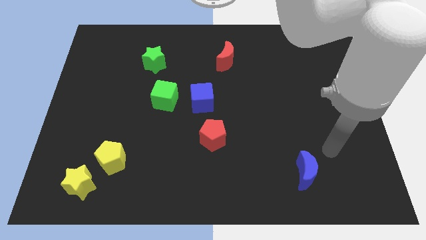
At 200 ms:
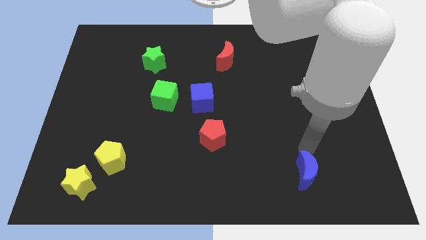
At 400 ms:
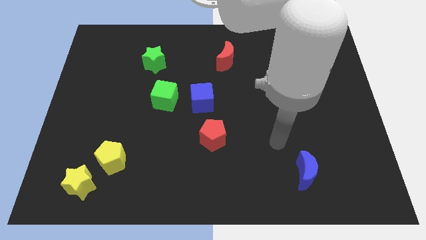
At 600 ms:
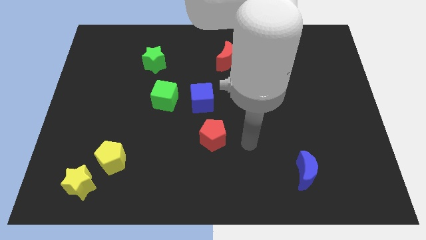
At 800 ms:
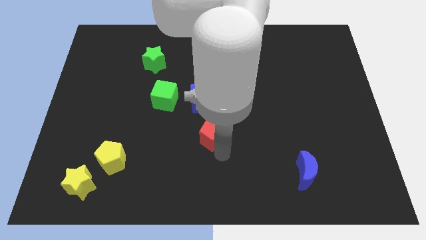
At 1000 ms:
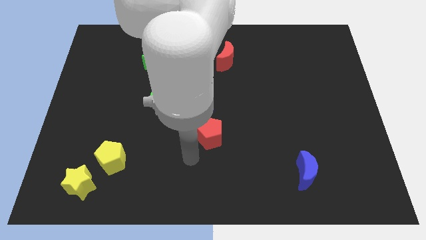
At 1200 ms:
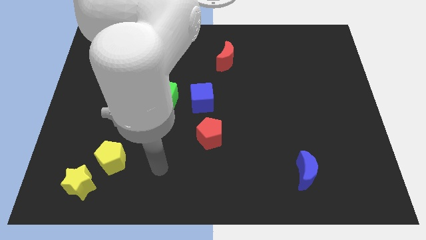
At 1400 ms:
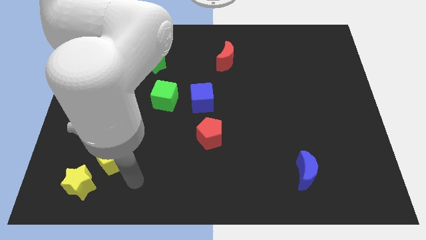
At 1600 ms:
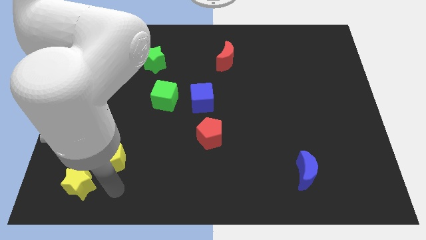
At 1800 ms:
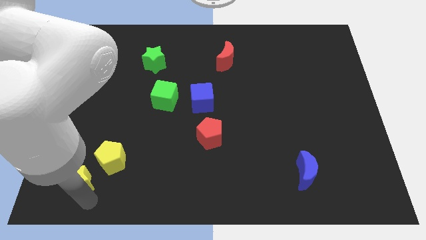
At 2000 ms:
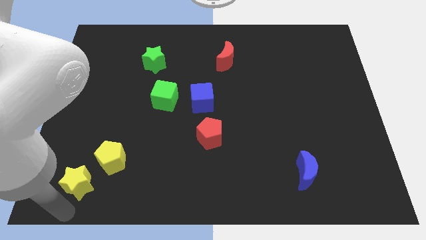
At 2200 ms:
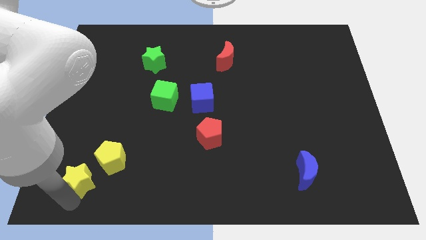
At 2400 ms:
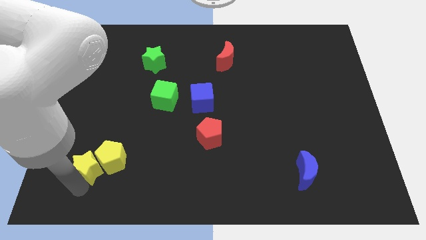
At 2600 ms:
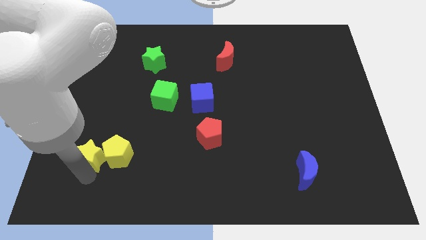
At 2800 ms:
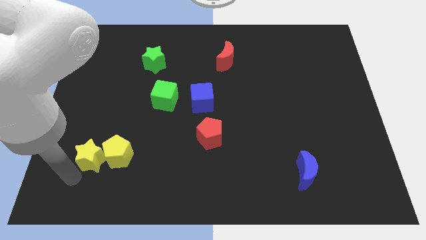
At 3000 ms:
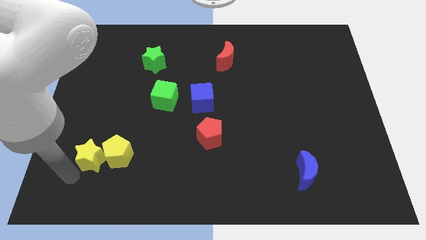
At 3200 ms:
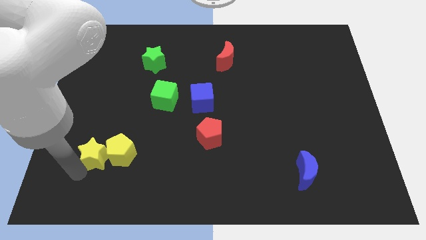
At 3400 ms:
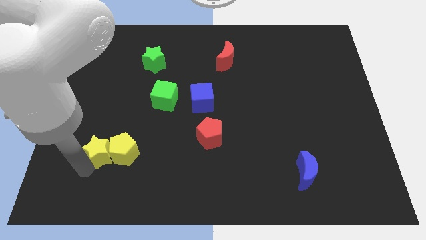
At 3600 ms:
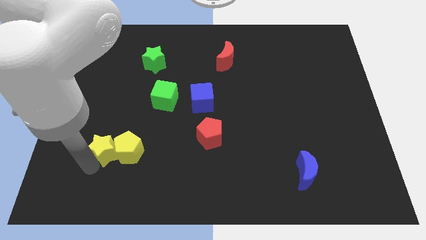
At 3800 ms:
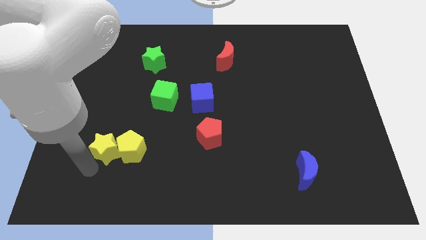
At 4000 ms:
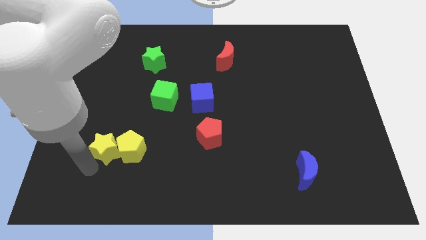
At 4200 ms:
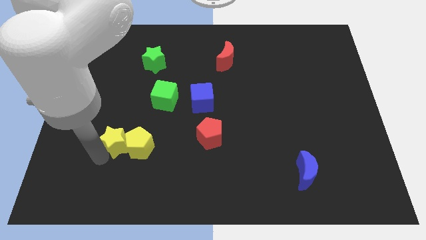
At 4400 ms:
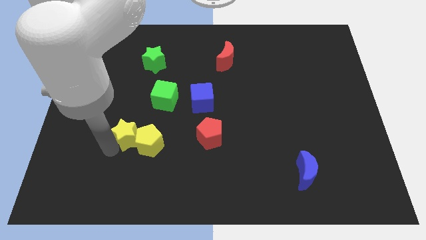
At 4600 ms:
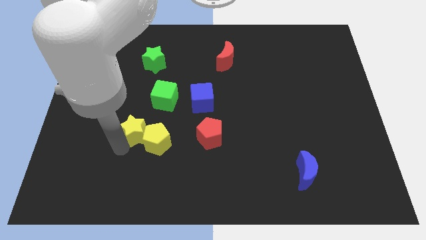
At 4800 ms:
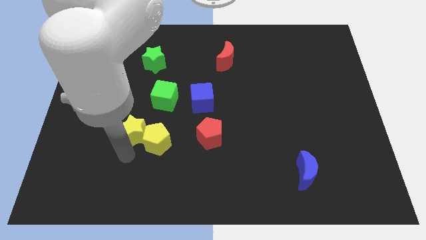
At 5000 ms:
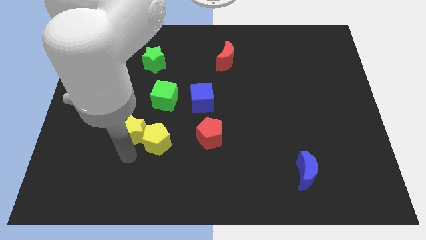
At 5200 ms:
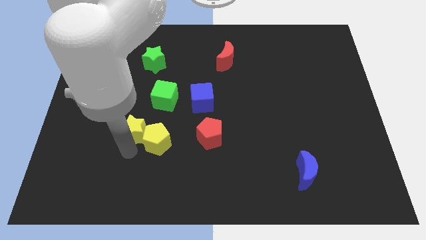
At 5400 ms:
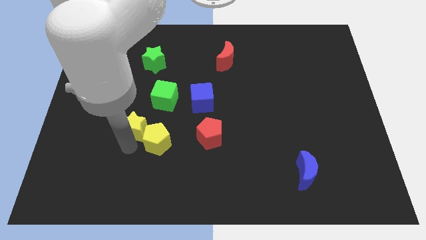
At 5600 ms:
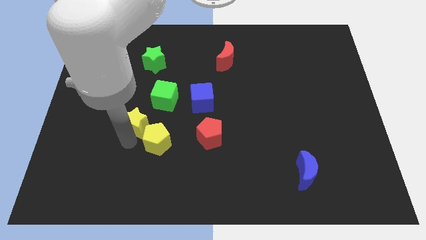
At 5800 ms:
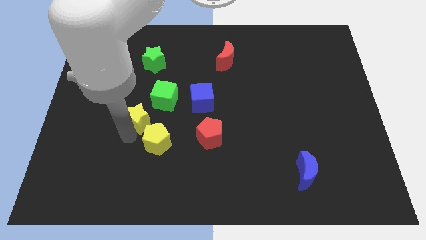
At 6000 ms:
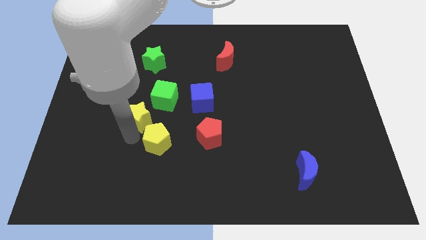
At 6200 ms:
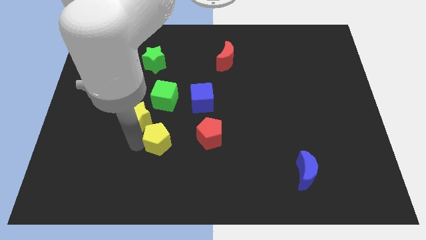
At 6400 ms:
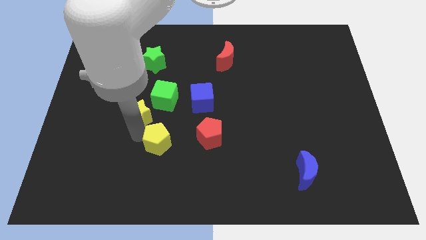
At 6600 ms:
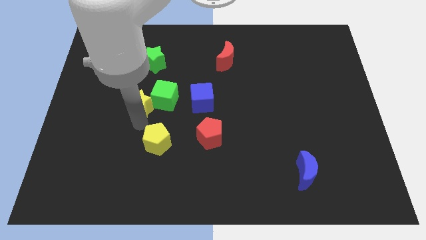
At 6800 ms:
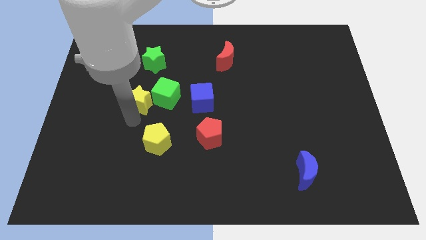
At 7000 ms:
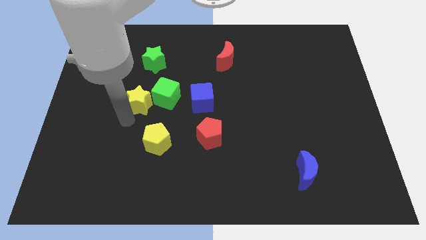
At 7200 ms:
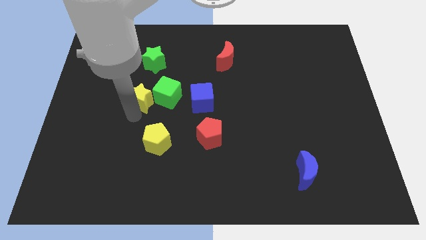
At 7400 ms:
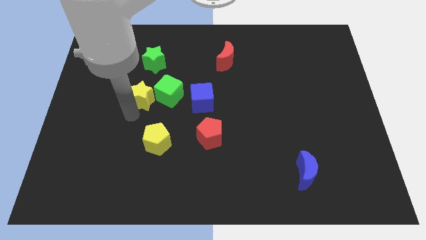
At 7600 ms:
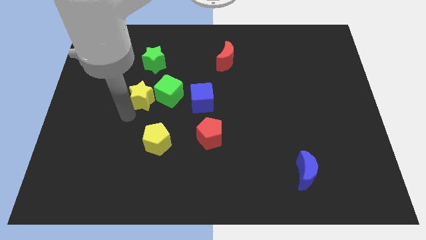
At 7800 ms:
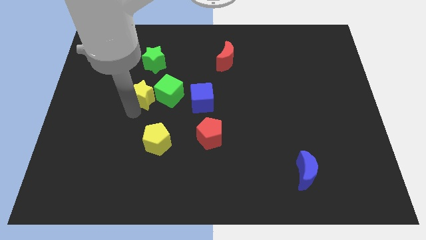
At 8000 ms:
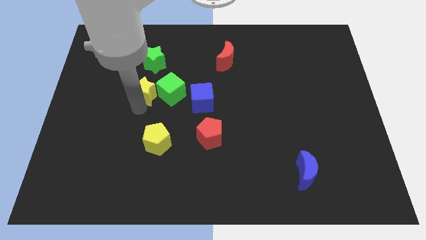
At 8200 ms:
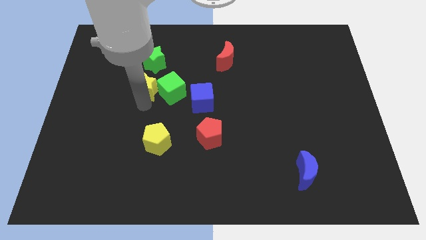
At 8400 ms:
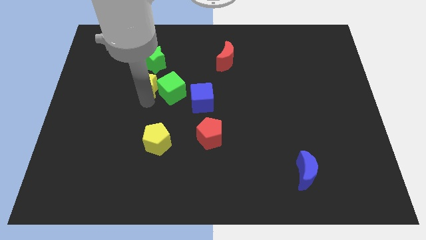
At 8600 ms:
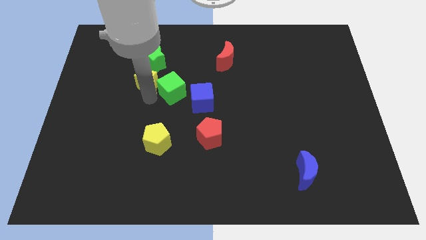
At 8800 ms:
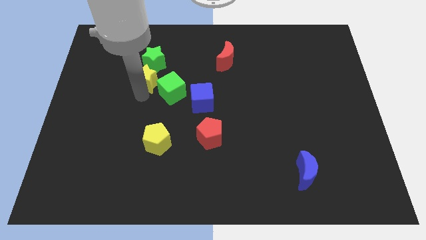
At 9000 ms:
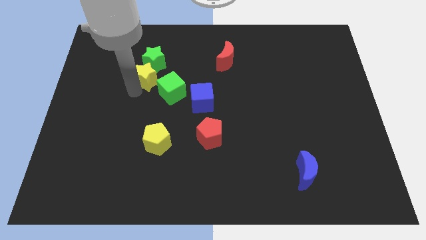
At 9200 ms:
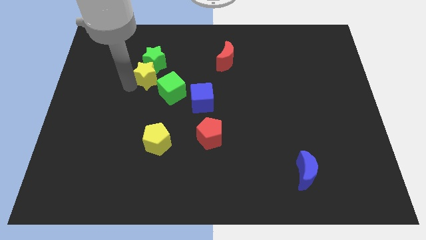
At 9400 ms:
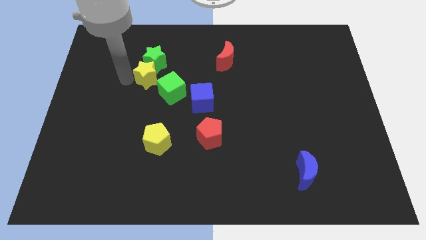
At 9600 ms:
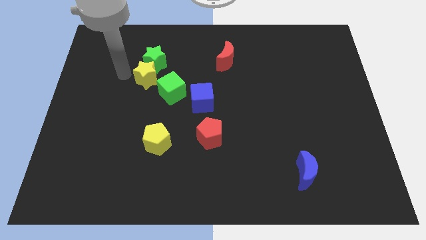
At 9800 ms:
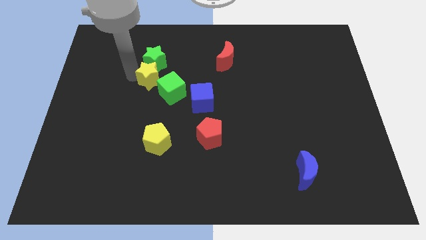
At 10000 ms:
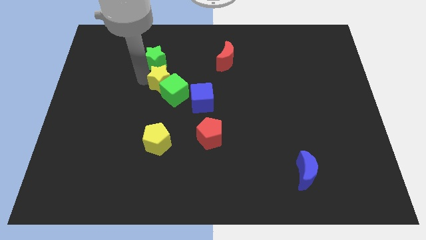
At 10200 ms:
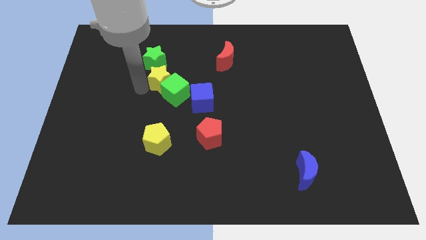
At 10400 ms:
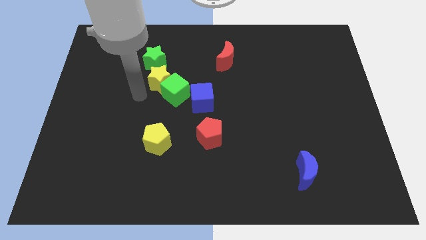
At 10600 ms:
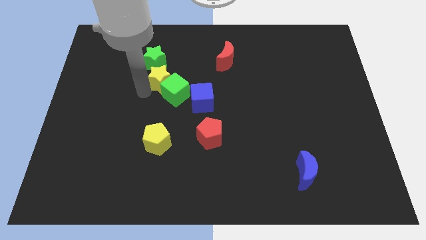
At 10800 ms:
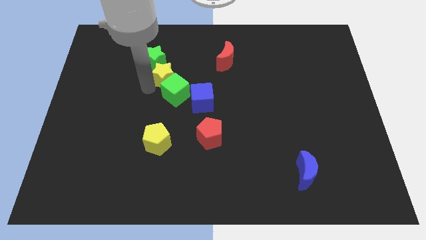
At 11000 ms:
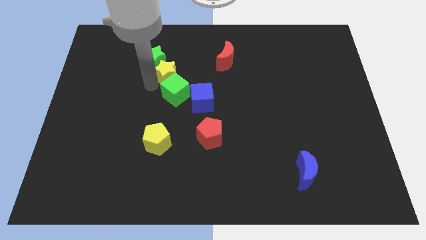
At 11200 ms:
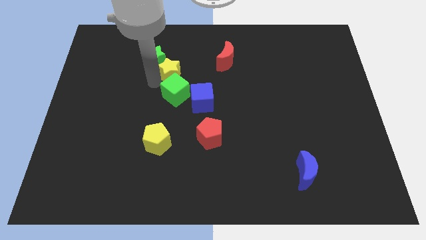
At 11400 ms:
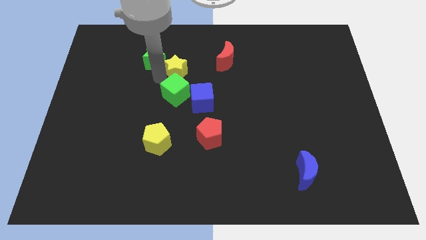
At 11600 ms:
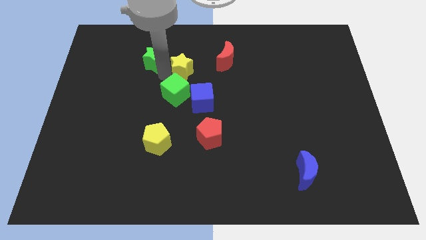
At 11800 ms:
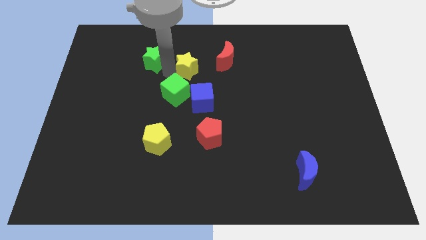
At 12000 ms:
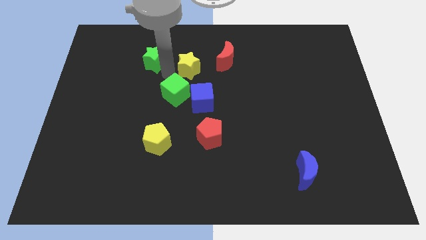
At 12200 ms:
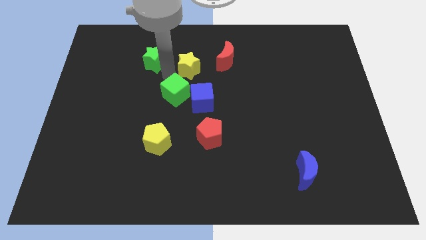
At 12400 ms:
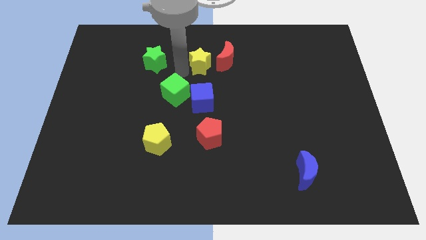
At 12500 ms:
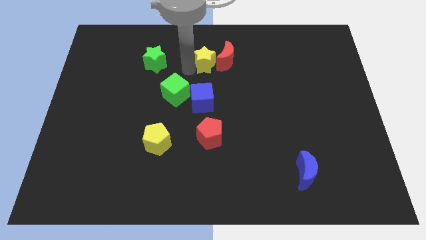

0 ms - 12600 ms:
move the yellow star close to the red moon

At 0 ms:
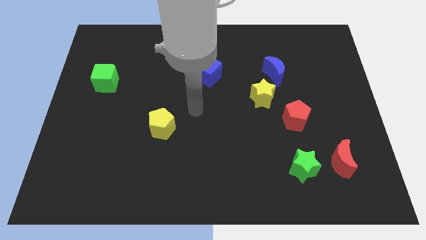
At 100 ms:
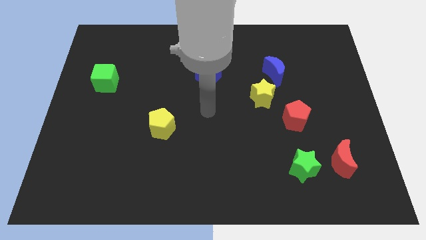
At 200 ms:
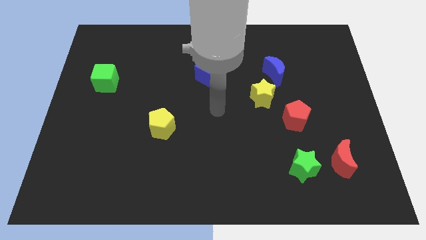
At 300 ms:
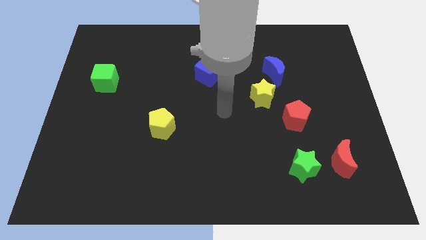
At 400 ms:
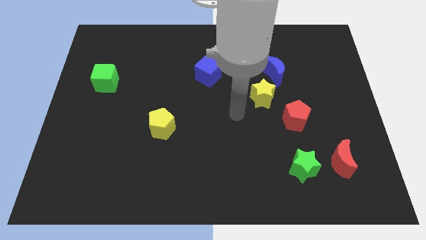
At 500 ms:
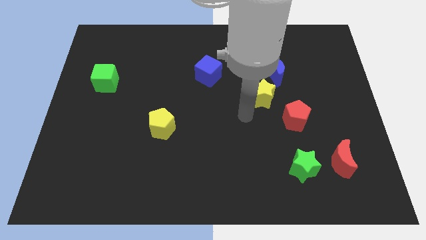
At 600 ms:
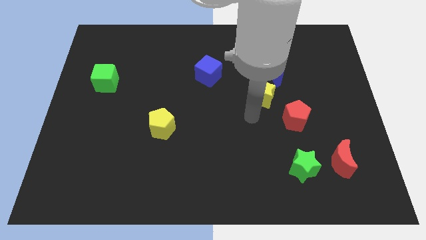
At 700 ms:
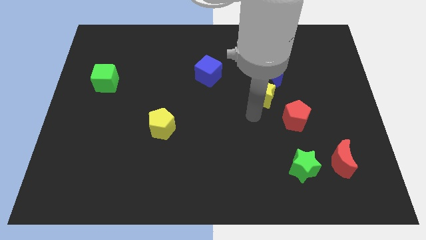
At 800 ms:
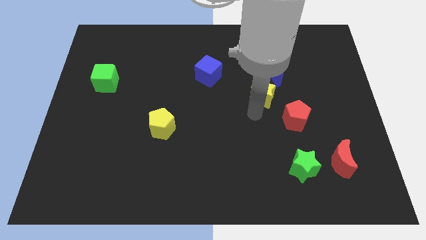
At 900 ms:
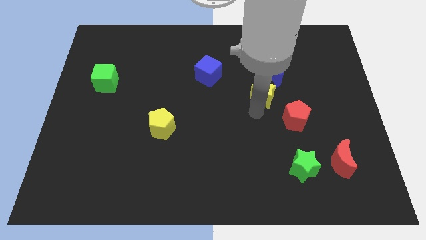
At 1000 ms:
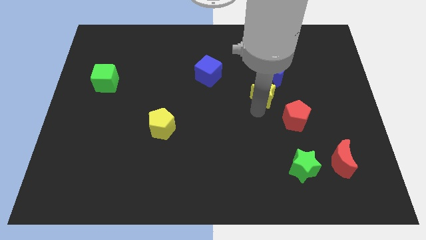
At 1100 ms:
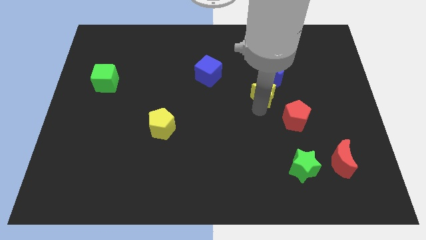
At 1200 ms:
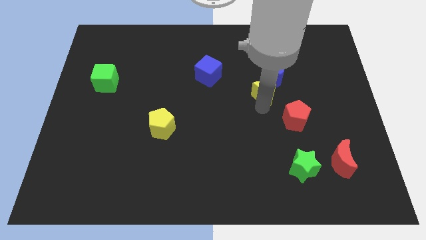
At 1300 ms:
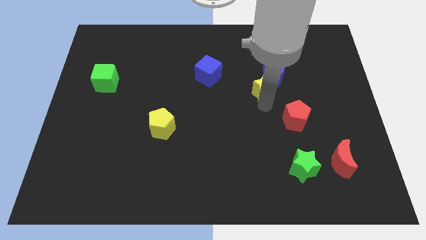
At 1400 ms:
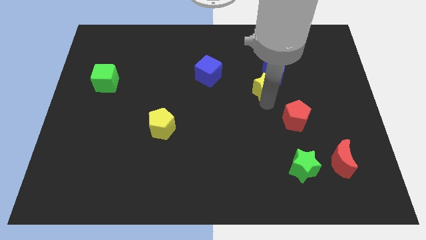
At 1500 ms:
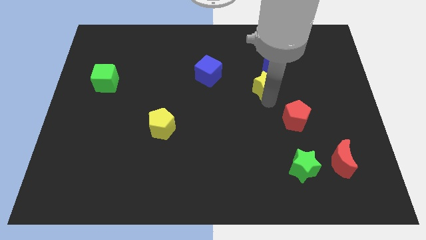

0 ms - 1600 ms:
push the yellow star close to the blue moon

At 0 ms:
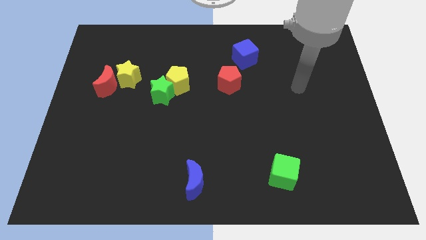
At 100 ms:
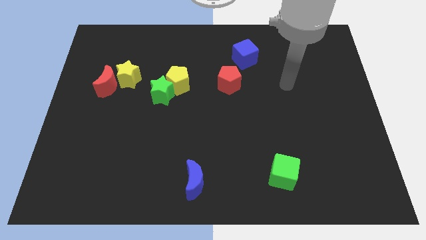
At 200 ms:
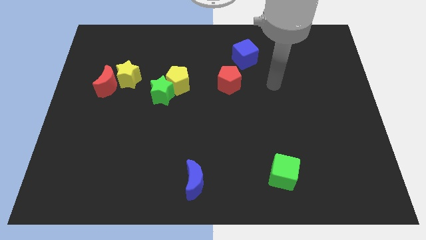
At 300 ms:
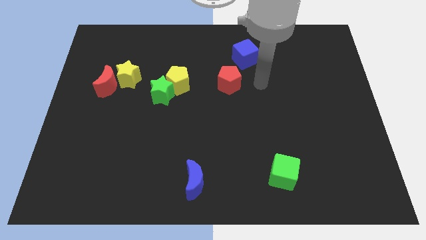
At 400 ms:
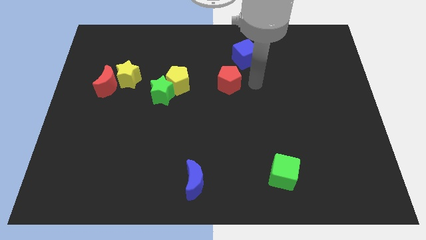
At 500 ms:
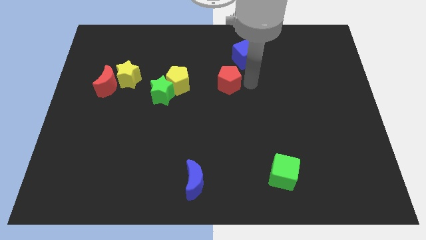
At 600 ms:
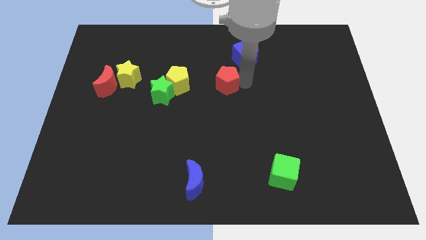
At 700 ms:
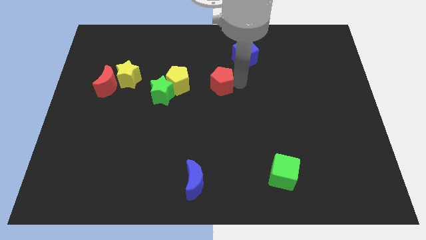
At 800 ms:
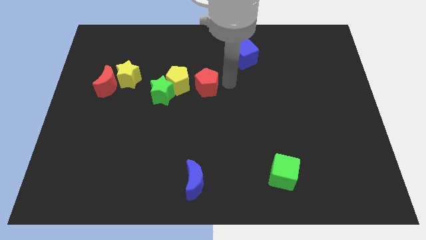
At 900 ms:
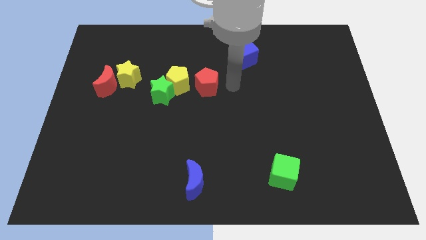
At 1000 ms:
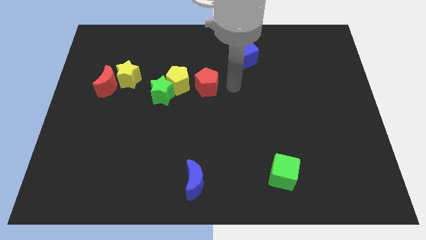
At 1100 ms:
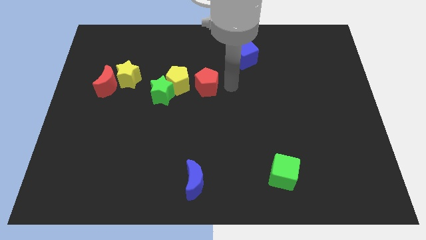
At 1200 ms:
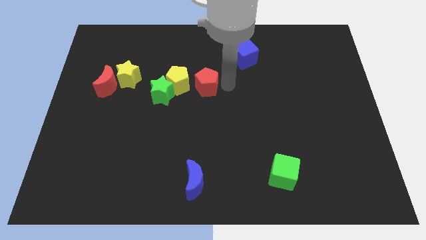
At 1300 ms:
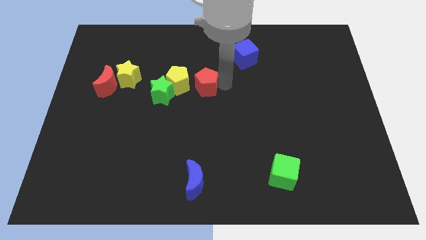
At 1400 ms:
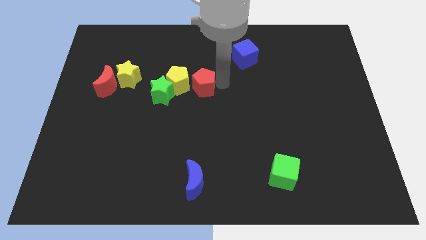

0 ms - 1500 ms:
push the red pentagon close to the yellow pentagon
